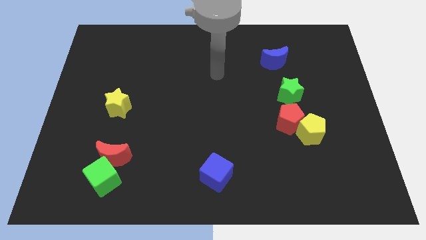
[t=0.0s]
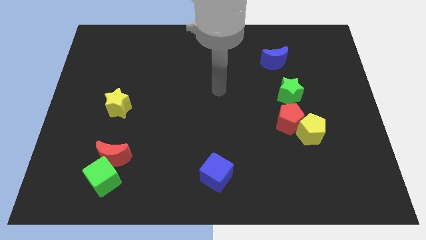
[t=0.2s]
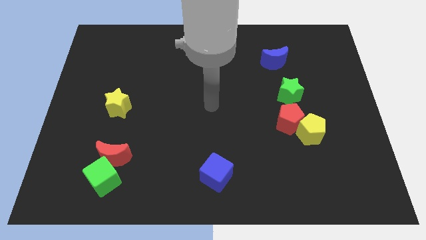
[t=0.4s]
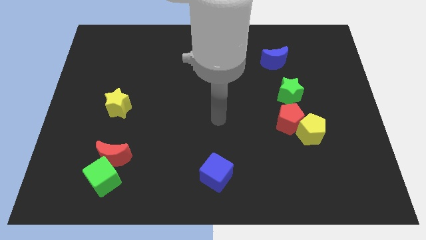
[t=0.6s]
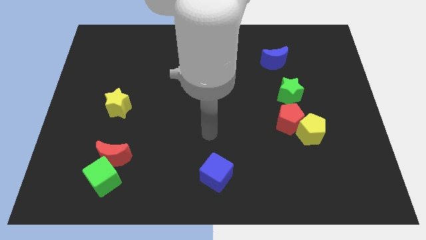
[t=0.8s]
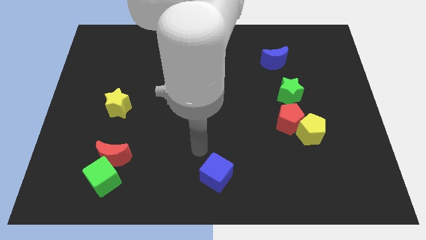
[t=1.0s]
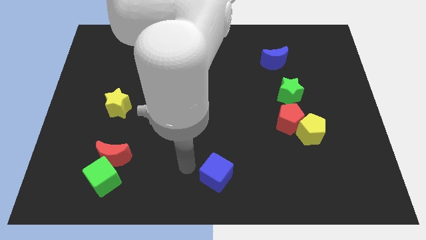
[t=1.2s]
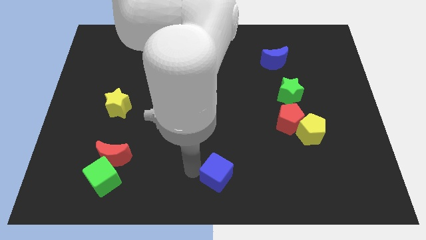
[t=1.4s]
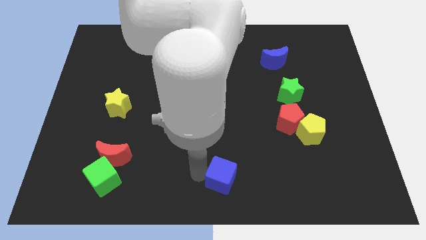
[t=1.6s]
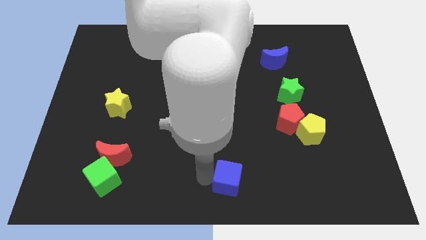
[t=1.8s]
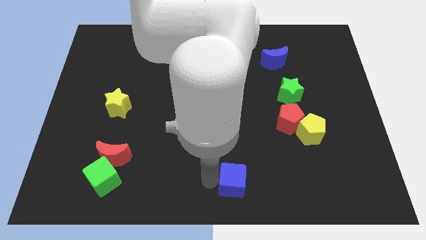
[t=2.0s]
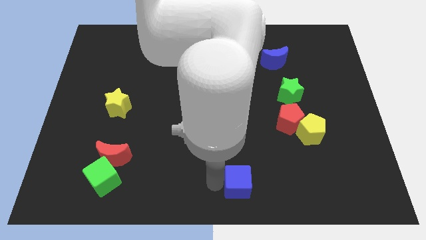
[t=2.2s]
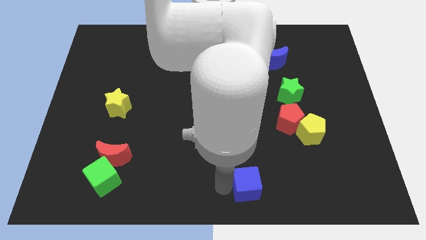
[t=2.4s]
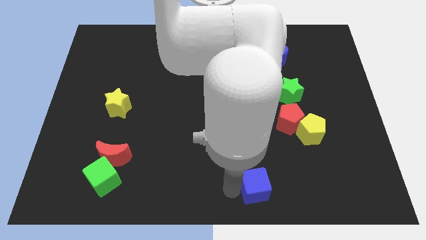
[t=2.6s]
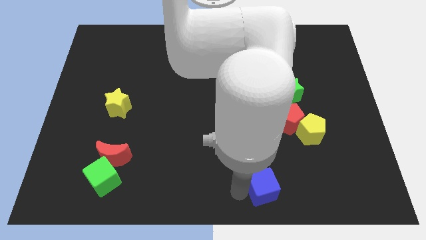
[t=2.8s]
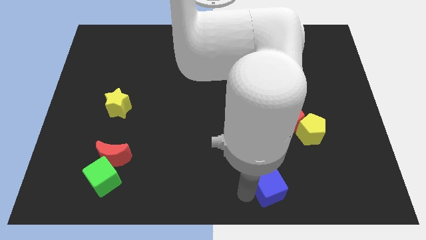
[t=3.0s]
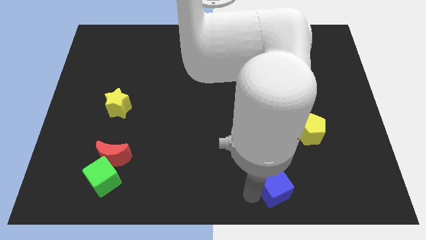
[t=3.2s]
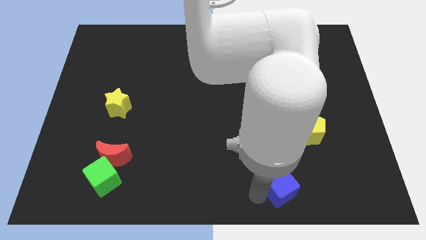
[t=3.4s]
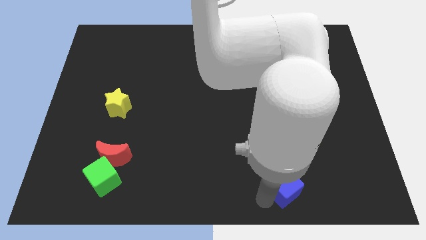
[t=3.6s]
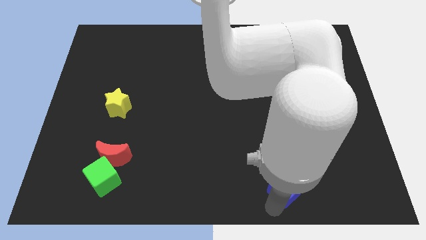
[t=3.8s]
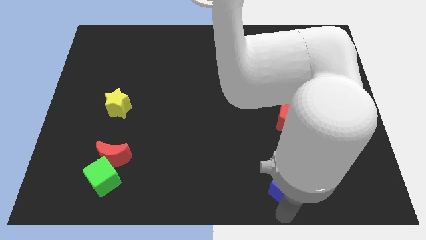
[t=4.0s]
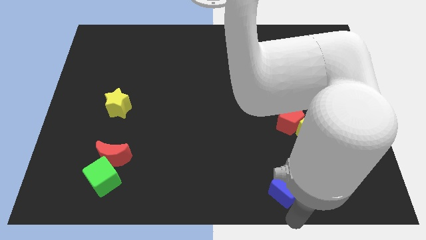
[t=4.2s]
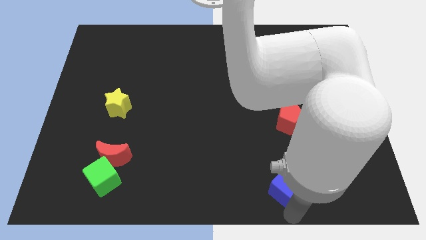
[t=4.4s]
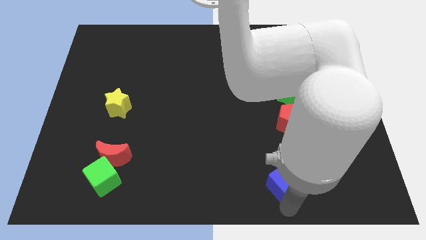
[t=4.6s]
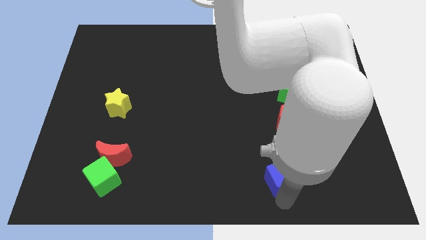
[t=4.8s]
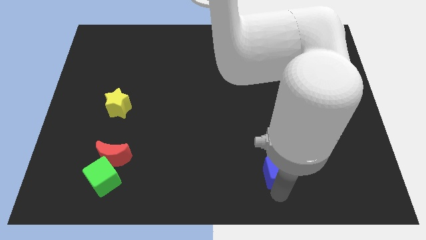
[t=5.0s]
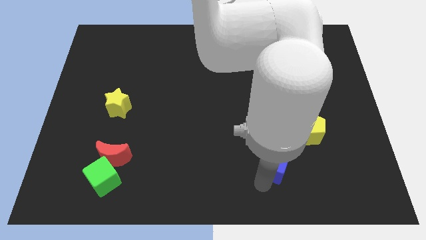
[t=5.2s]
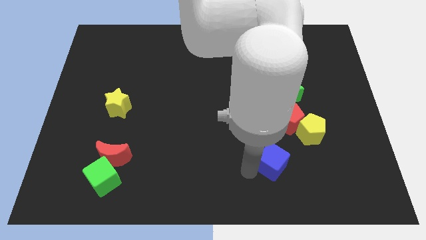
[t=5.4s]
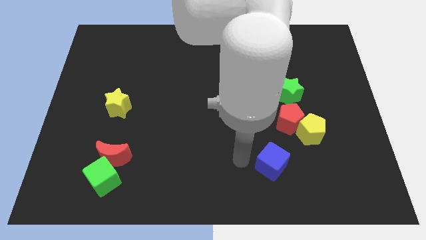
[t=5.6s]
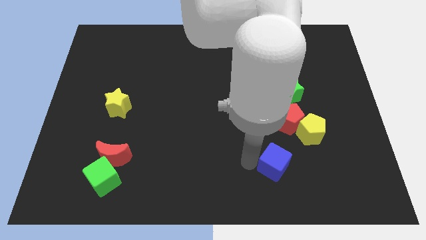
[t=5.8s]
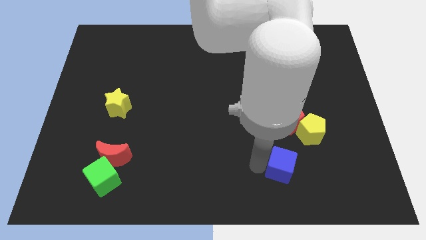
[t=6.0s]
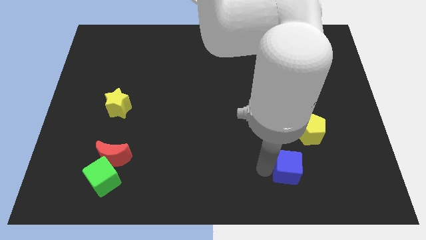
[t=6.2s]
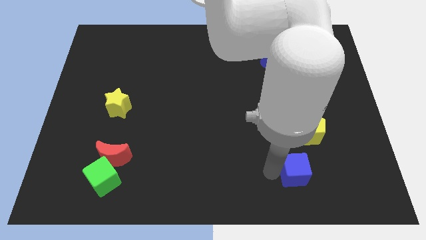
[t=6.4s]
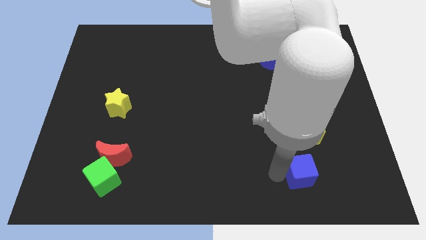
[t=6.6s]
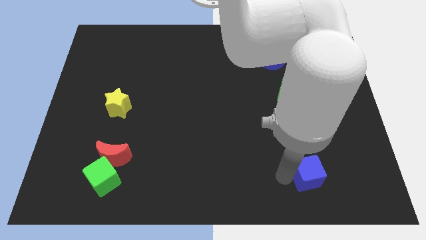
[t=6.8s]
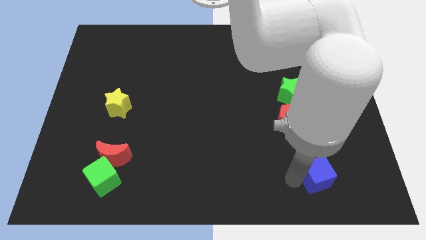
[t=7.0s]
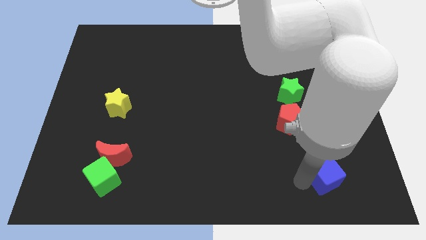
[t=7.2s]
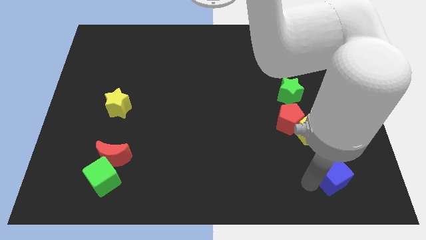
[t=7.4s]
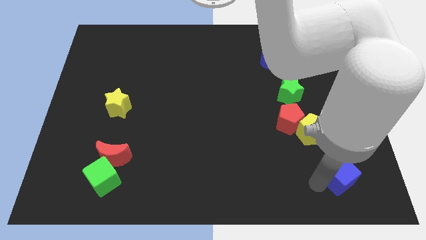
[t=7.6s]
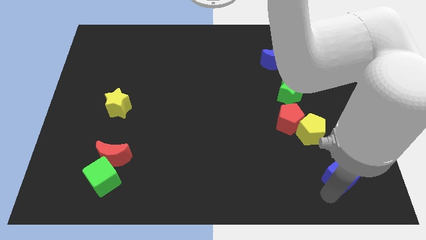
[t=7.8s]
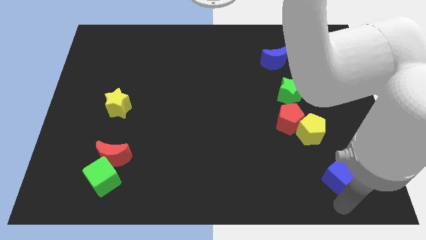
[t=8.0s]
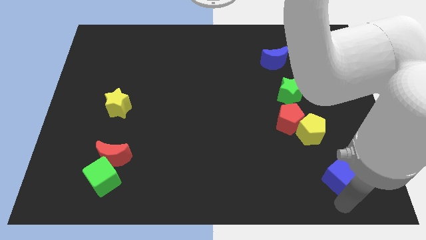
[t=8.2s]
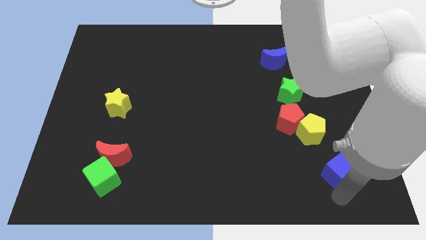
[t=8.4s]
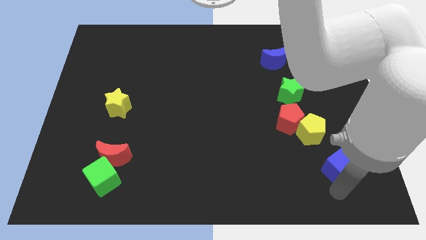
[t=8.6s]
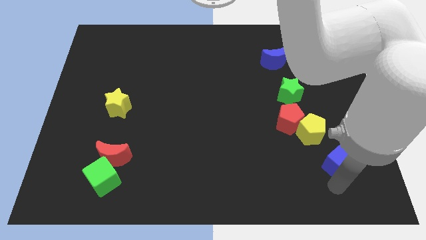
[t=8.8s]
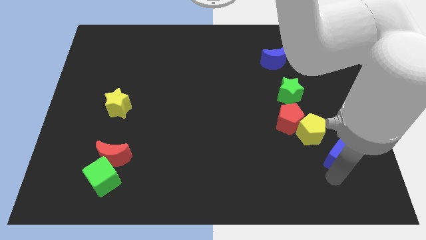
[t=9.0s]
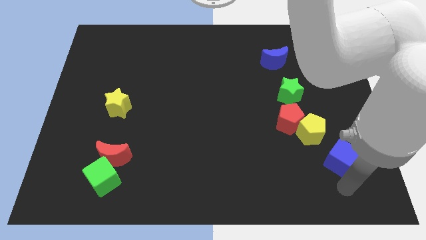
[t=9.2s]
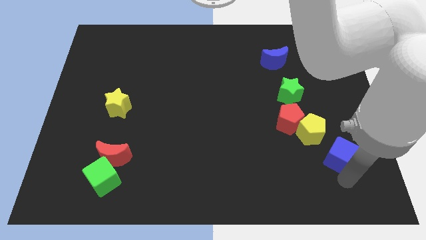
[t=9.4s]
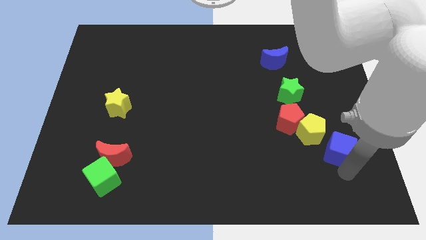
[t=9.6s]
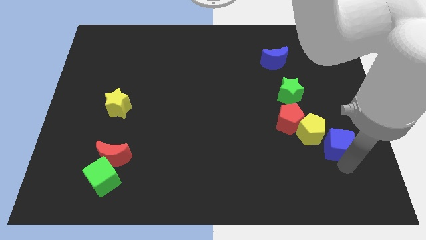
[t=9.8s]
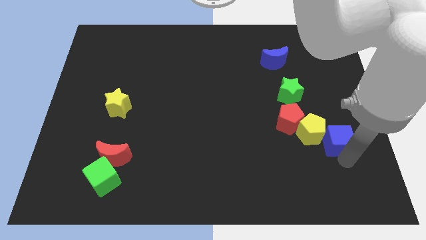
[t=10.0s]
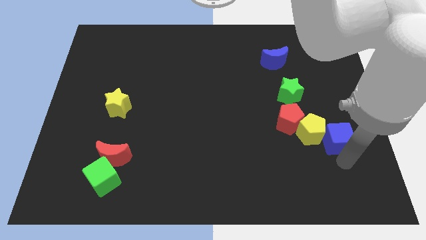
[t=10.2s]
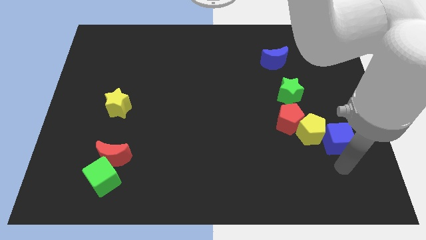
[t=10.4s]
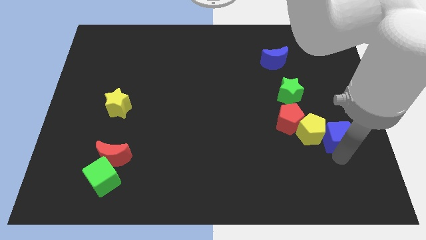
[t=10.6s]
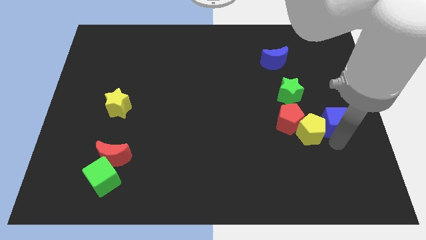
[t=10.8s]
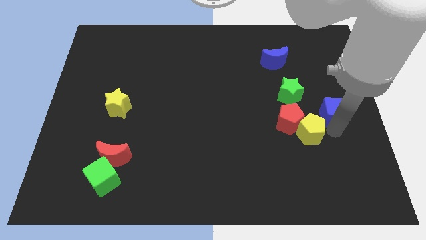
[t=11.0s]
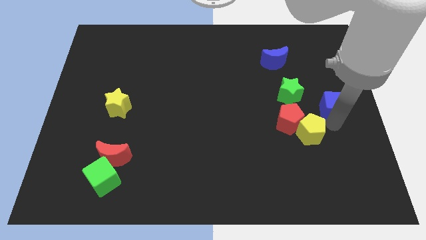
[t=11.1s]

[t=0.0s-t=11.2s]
slide the blue cube to the right side of the green star

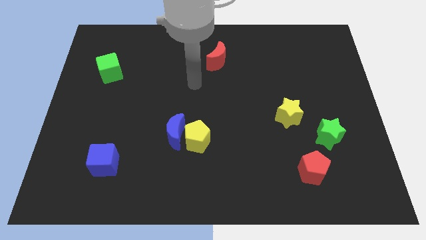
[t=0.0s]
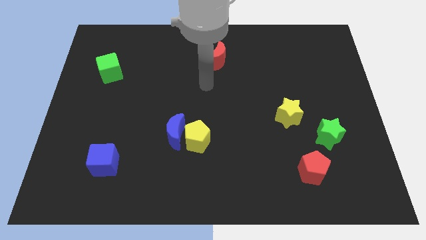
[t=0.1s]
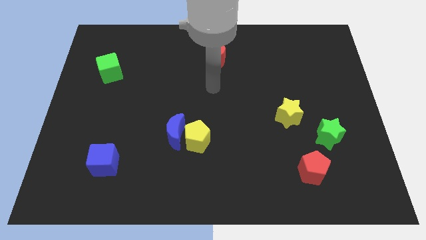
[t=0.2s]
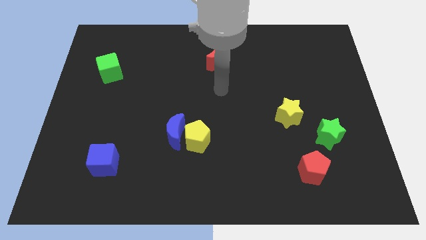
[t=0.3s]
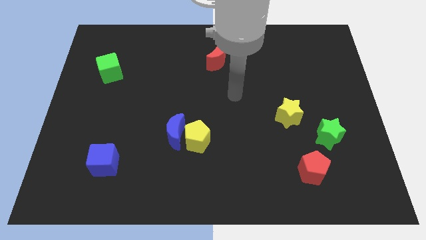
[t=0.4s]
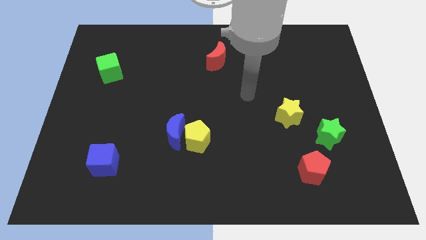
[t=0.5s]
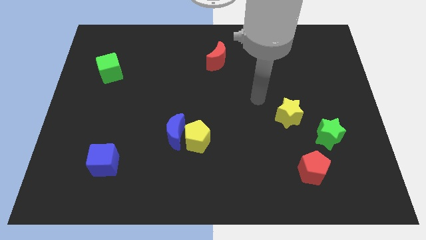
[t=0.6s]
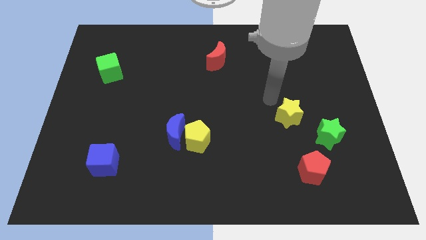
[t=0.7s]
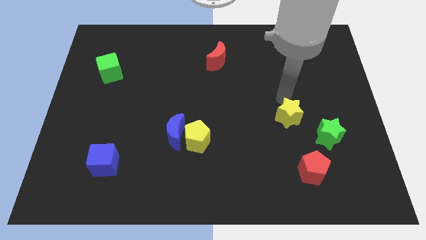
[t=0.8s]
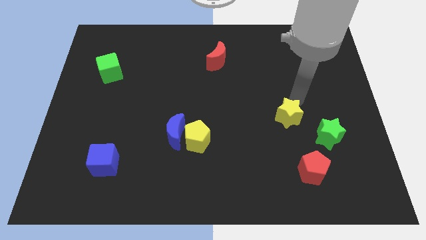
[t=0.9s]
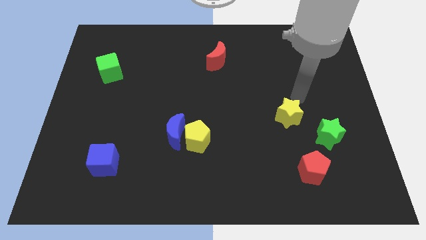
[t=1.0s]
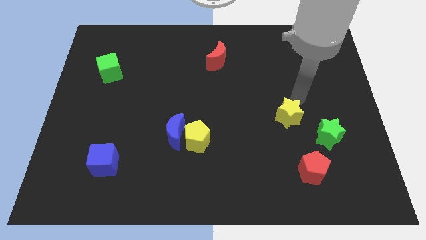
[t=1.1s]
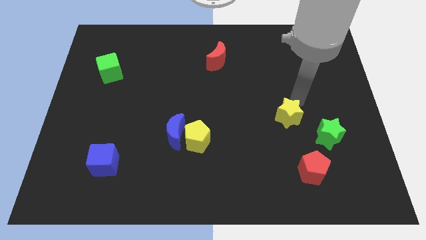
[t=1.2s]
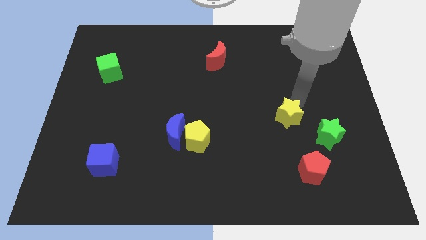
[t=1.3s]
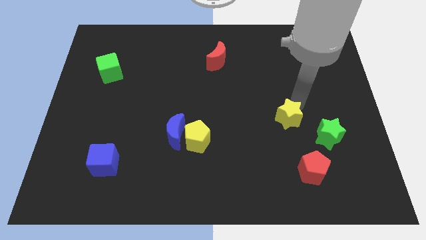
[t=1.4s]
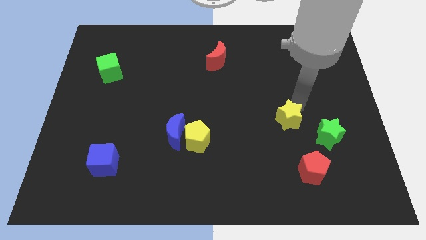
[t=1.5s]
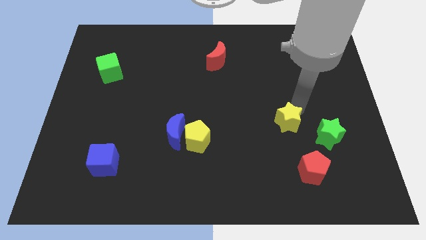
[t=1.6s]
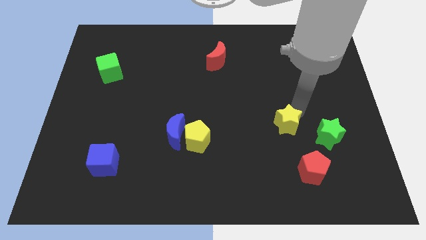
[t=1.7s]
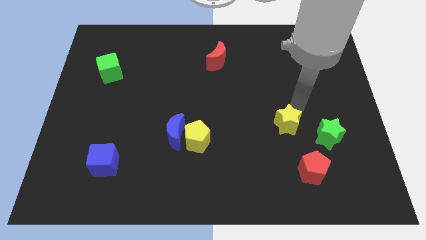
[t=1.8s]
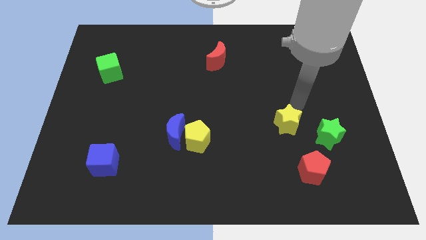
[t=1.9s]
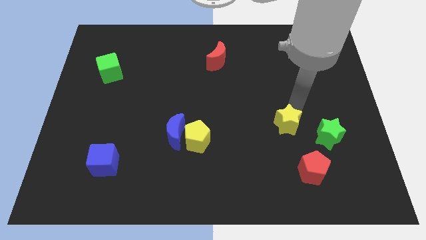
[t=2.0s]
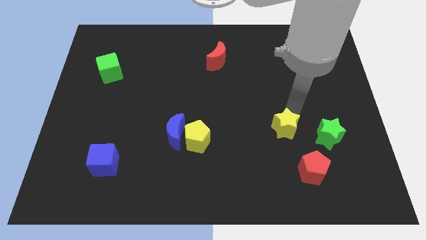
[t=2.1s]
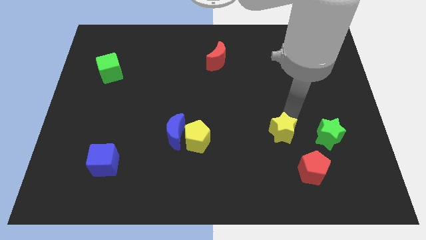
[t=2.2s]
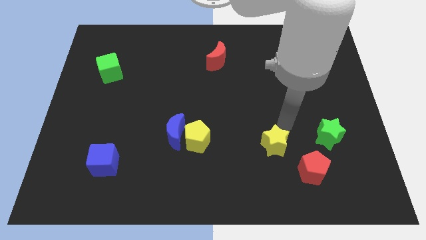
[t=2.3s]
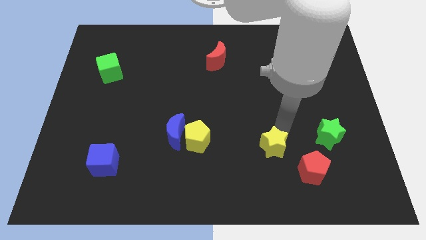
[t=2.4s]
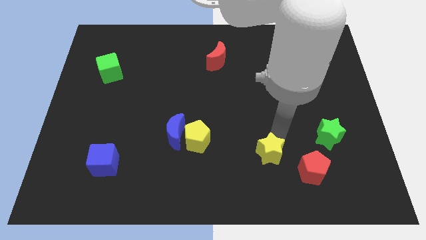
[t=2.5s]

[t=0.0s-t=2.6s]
push the yellow star left of the red pentagon
